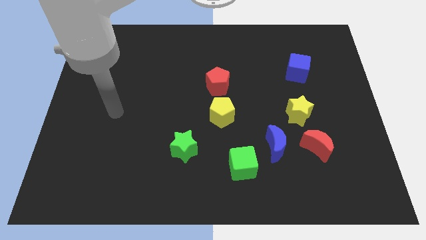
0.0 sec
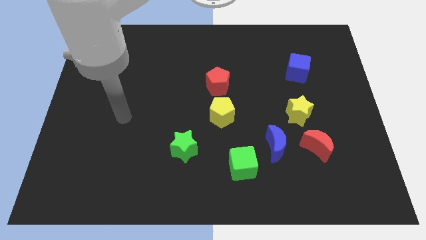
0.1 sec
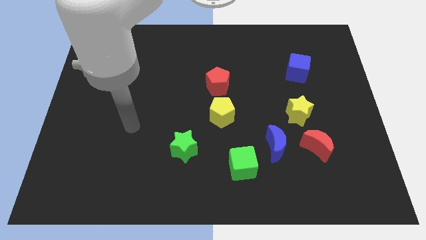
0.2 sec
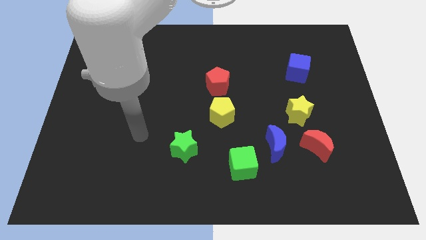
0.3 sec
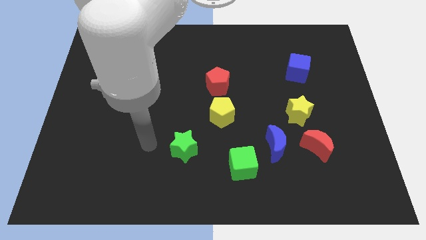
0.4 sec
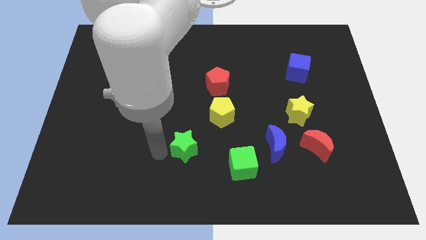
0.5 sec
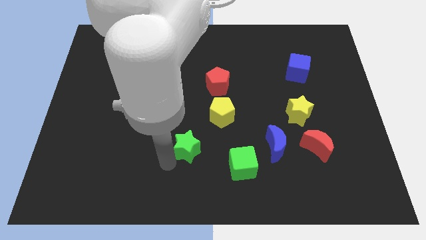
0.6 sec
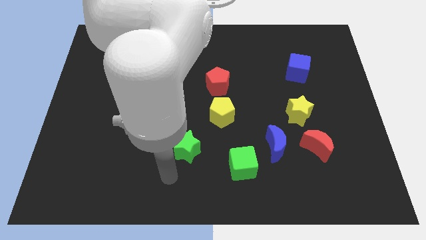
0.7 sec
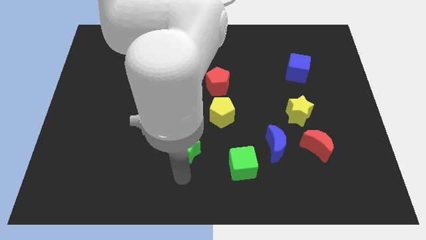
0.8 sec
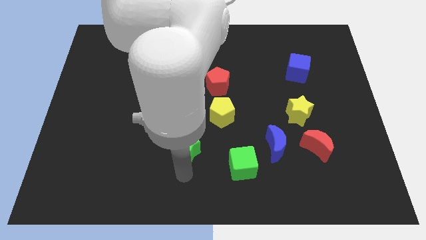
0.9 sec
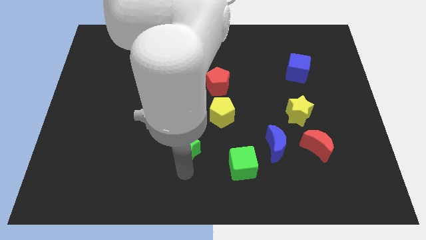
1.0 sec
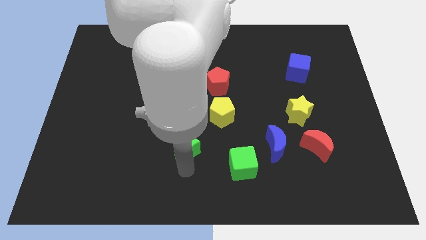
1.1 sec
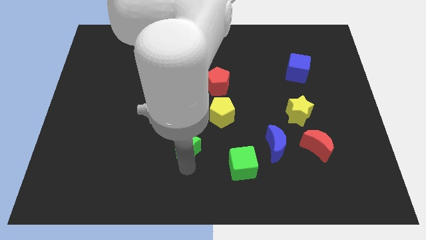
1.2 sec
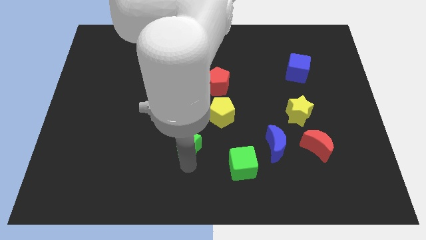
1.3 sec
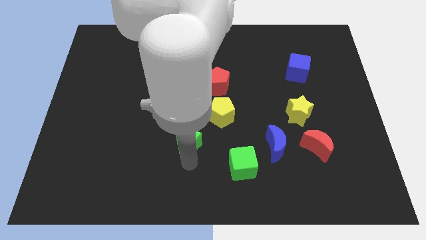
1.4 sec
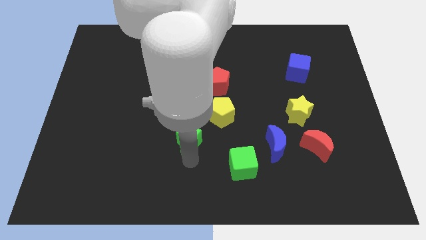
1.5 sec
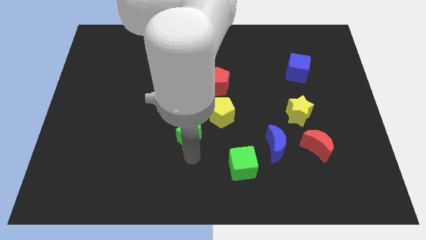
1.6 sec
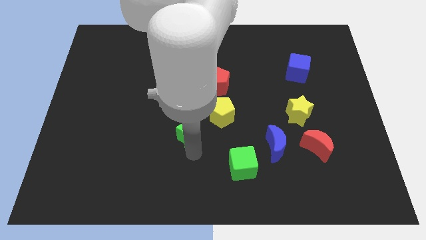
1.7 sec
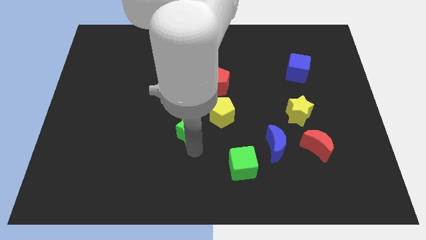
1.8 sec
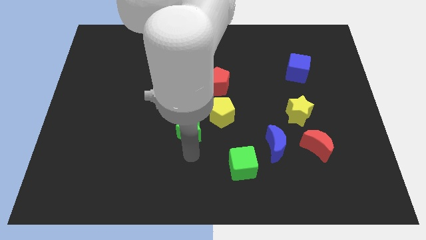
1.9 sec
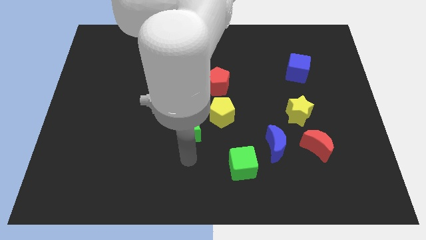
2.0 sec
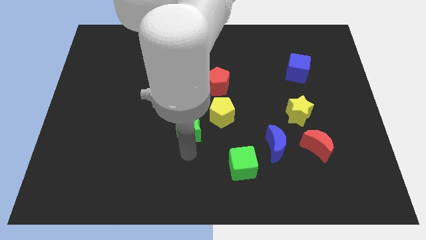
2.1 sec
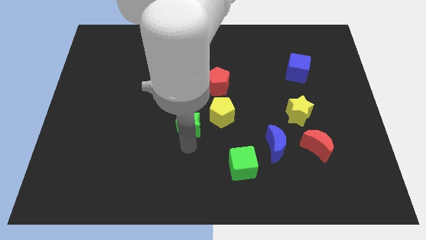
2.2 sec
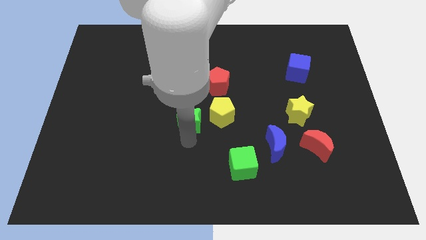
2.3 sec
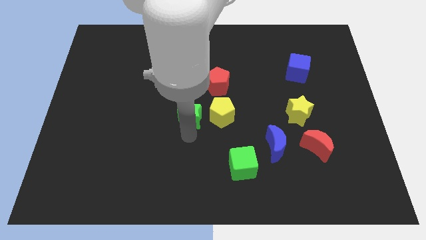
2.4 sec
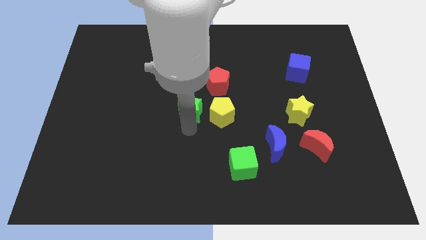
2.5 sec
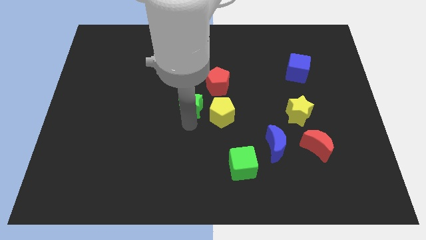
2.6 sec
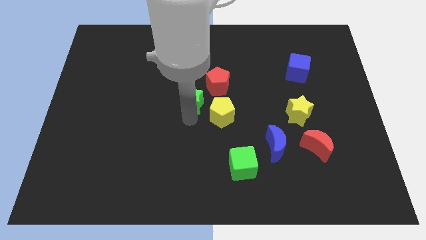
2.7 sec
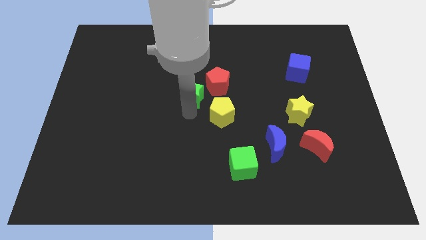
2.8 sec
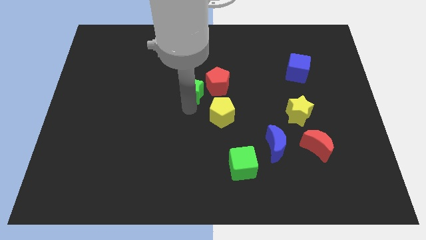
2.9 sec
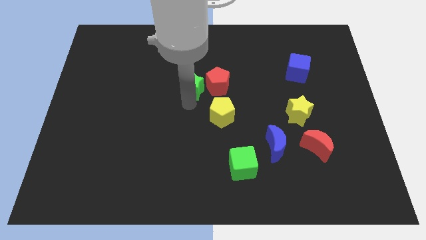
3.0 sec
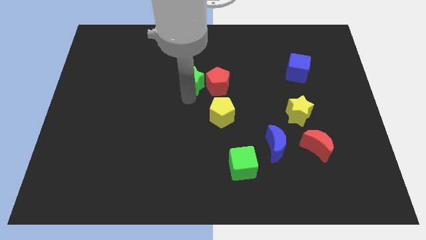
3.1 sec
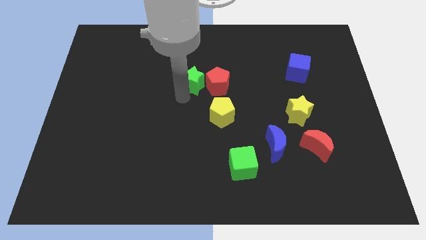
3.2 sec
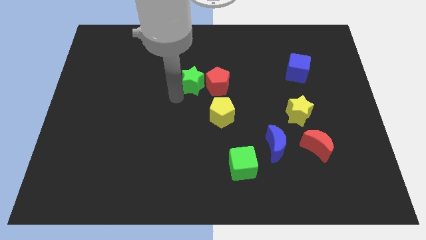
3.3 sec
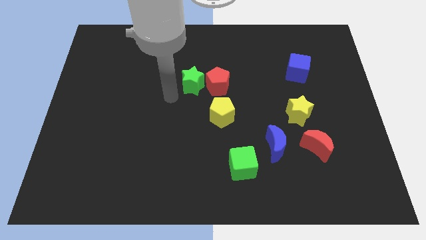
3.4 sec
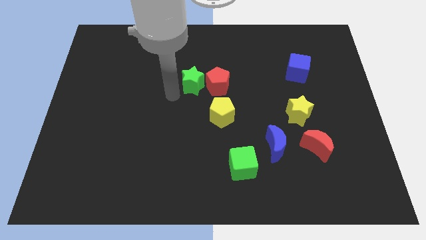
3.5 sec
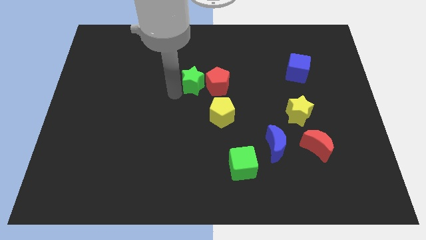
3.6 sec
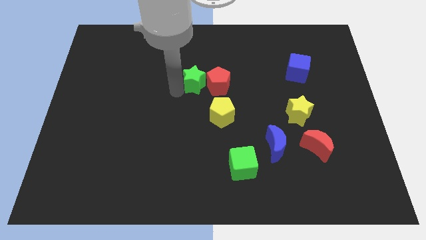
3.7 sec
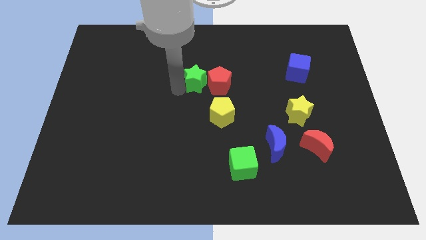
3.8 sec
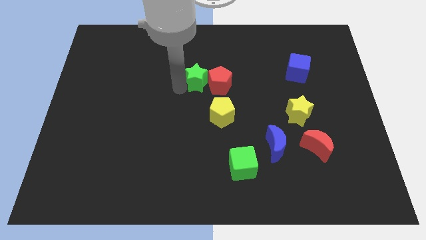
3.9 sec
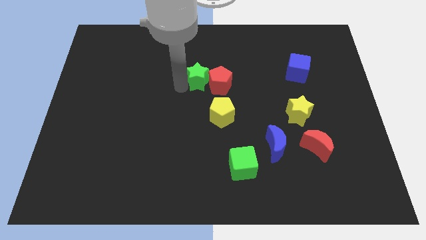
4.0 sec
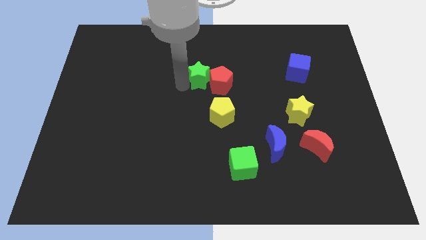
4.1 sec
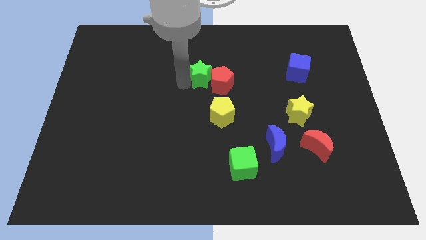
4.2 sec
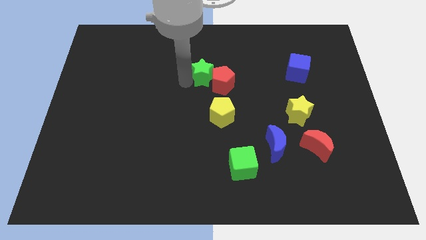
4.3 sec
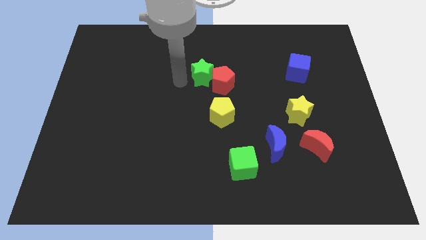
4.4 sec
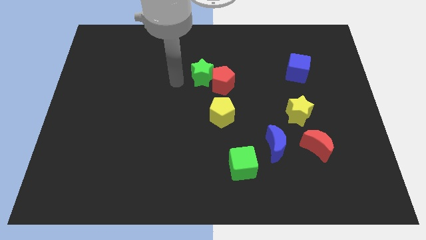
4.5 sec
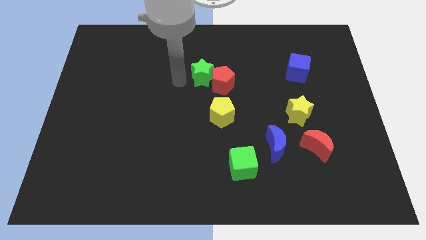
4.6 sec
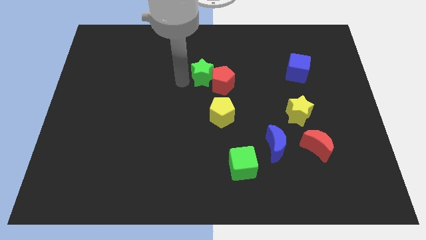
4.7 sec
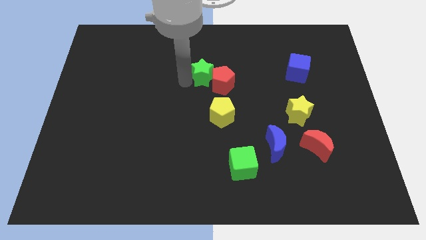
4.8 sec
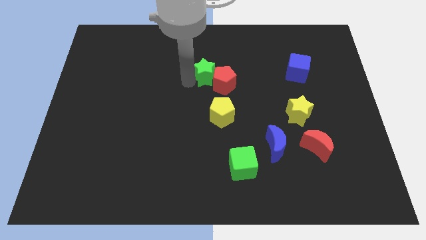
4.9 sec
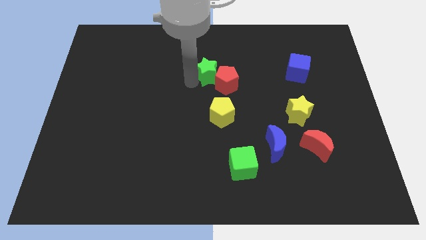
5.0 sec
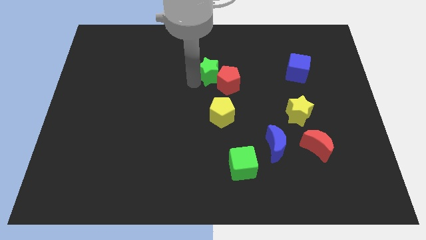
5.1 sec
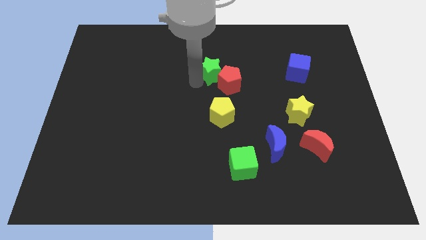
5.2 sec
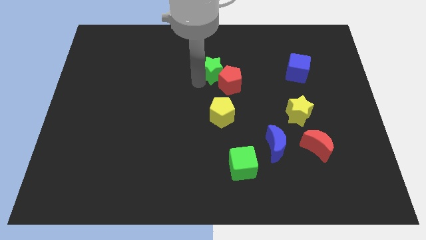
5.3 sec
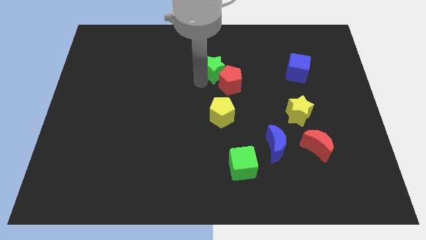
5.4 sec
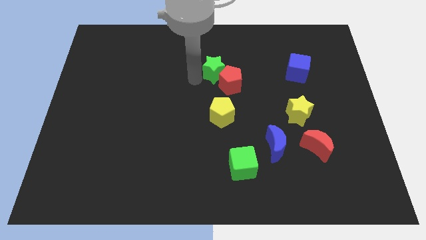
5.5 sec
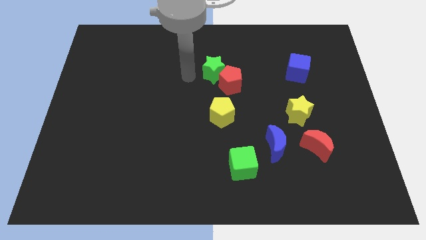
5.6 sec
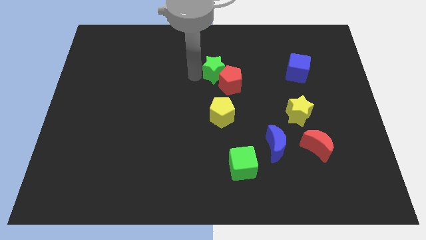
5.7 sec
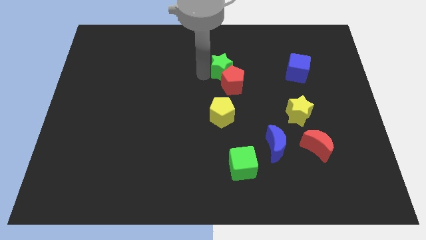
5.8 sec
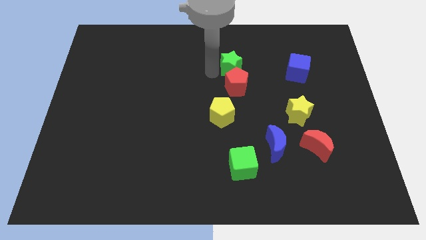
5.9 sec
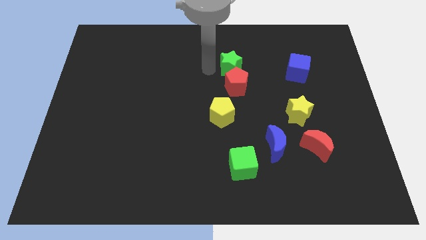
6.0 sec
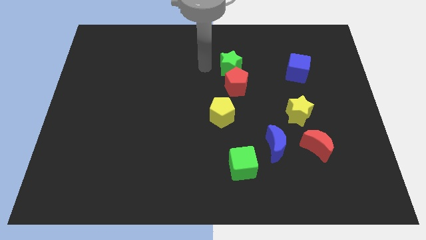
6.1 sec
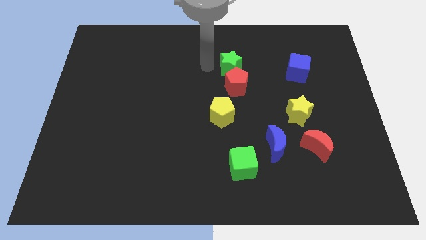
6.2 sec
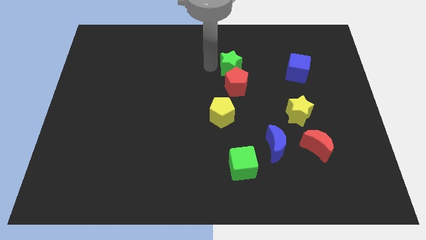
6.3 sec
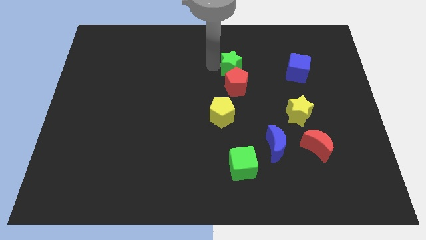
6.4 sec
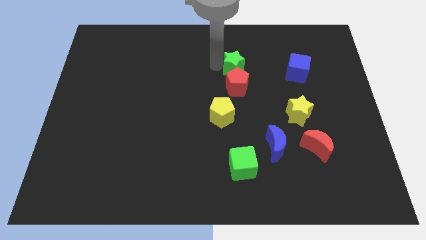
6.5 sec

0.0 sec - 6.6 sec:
put the green star diagonally up and to the right of the red pentagon

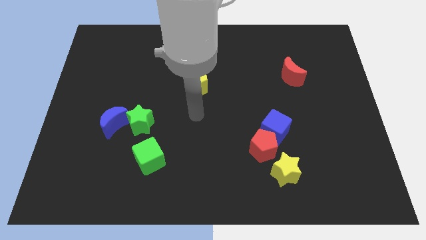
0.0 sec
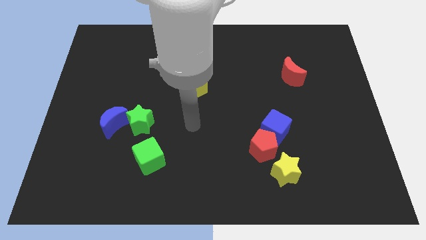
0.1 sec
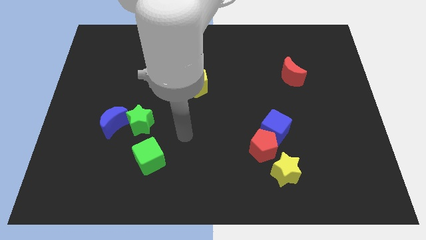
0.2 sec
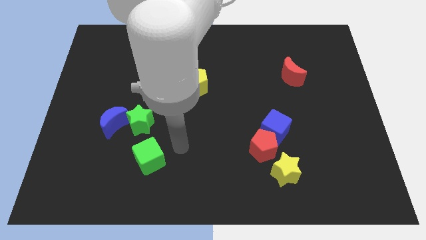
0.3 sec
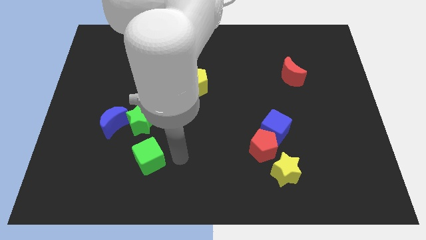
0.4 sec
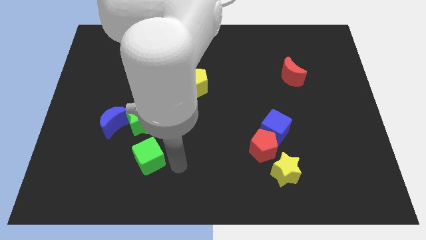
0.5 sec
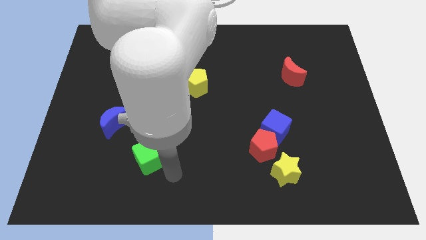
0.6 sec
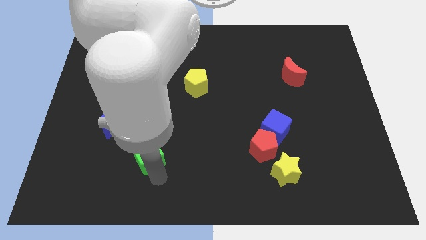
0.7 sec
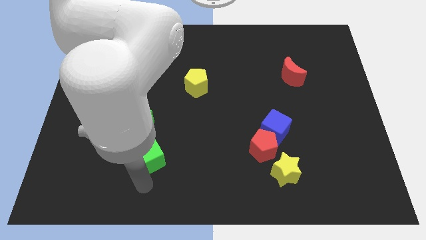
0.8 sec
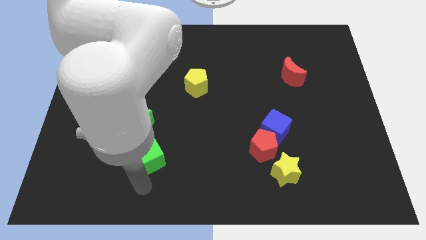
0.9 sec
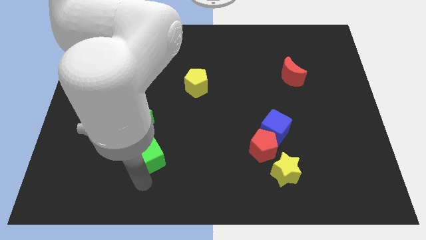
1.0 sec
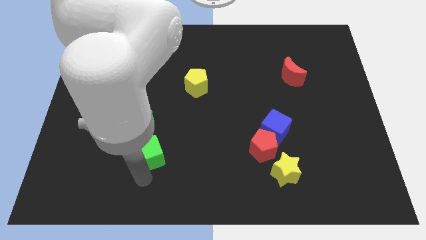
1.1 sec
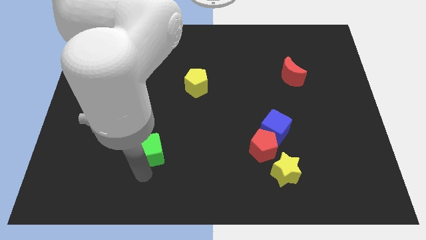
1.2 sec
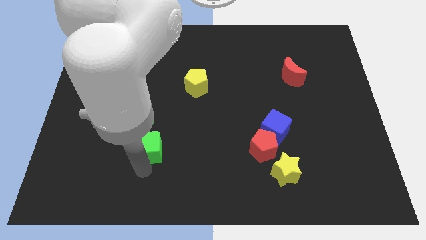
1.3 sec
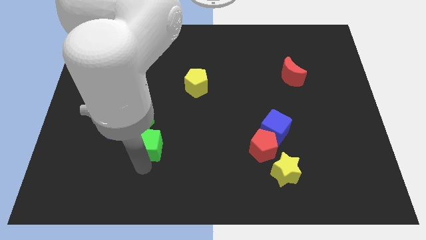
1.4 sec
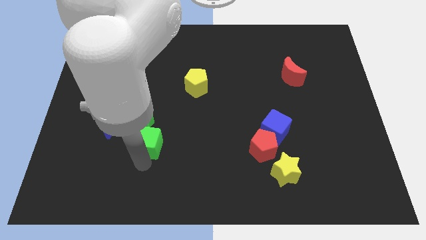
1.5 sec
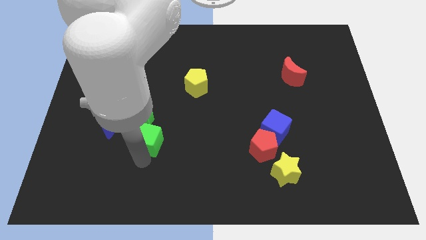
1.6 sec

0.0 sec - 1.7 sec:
slide the green cube to the right side of the blue moon
